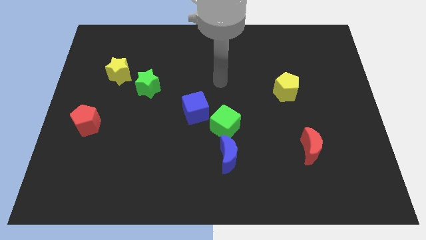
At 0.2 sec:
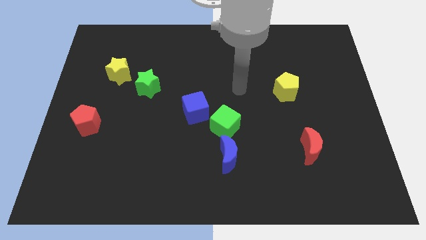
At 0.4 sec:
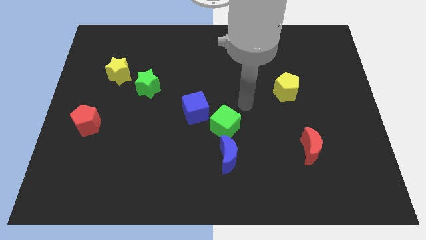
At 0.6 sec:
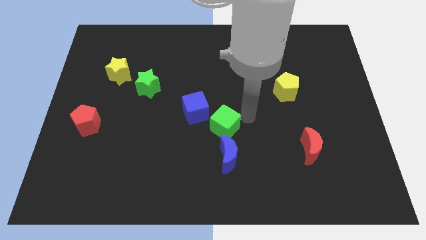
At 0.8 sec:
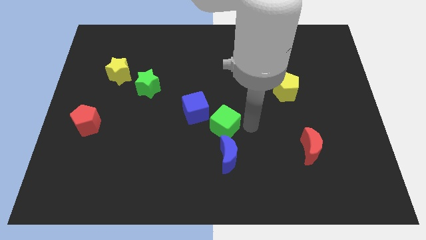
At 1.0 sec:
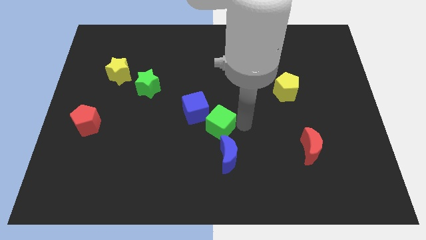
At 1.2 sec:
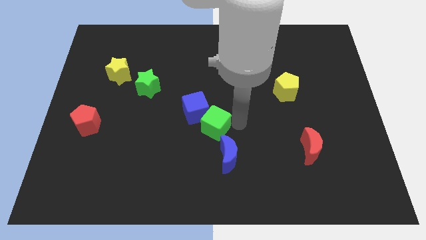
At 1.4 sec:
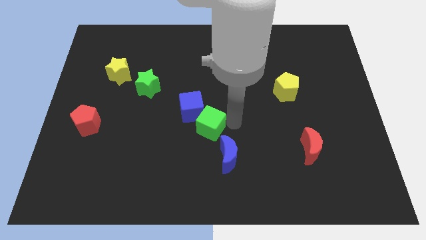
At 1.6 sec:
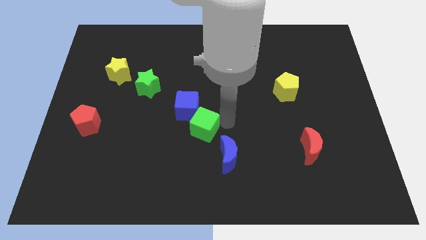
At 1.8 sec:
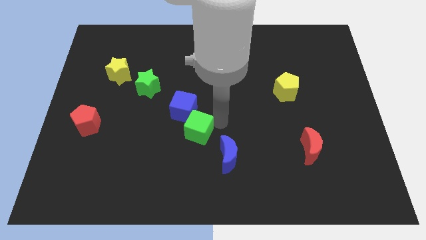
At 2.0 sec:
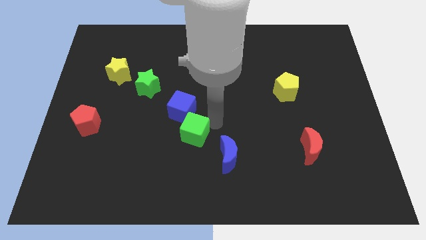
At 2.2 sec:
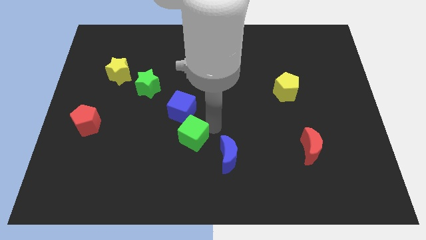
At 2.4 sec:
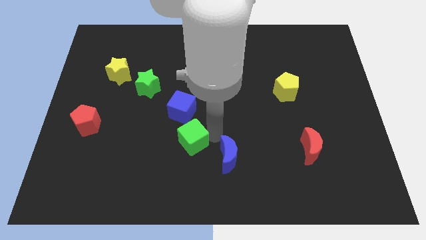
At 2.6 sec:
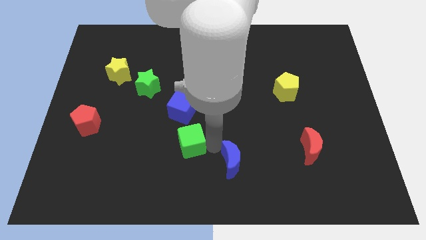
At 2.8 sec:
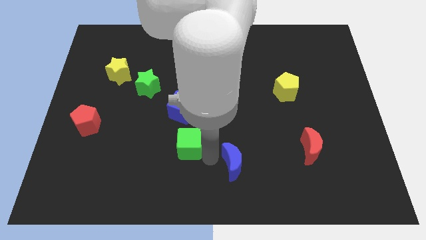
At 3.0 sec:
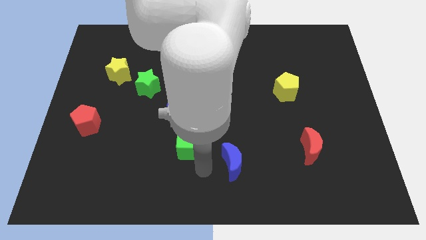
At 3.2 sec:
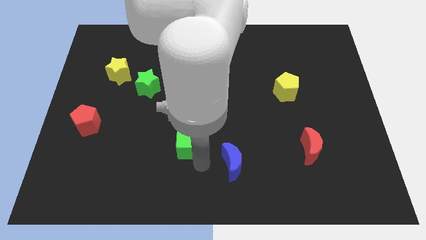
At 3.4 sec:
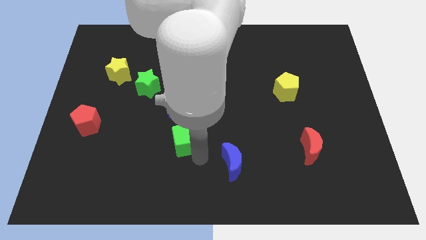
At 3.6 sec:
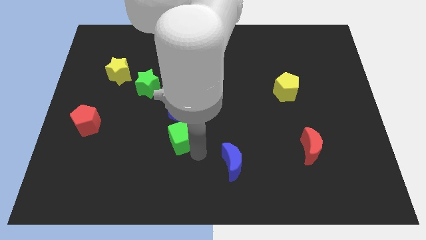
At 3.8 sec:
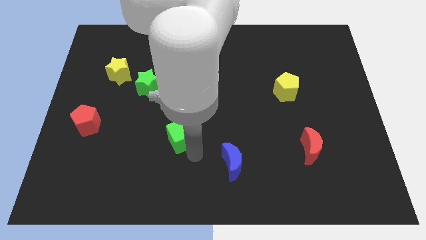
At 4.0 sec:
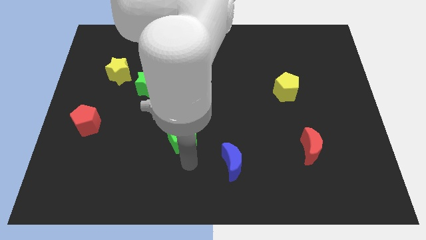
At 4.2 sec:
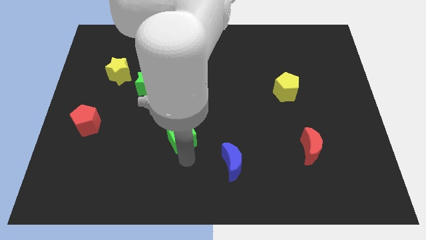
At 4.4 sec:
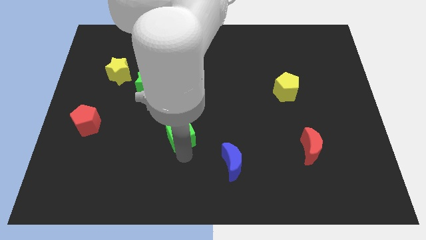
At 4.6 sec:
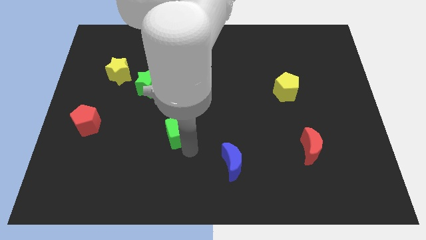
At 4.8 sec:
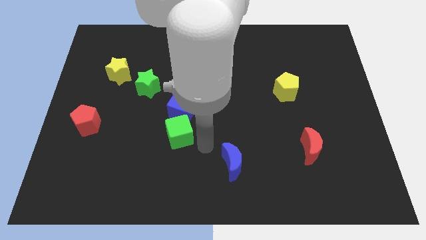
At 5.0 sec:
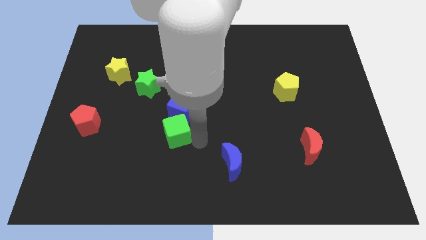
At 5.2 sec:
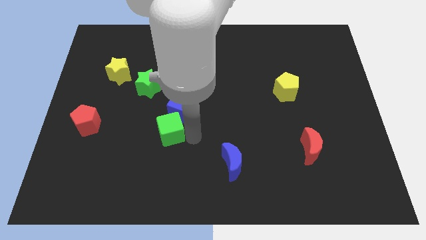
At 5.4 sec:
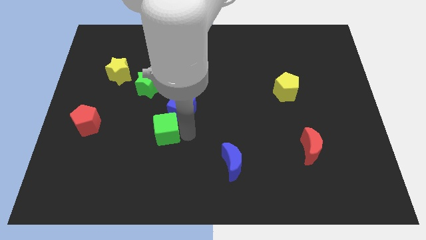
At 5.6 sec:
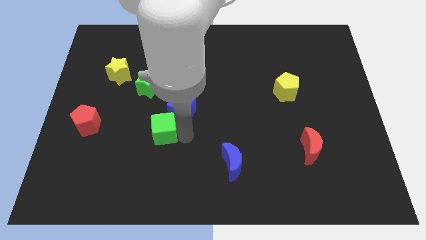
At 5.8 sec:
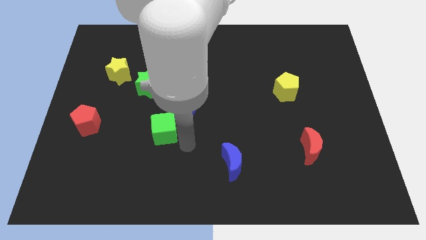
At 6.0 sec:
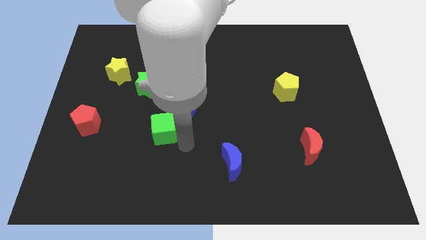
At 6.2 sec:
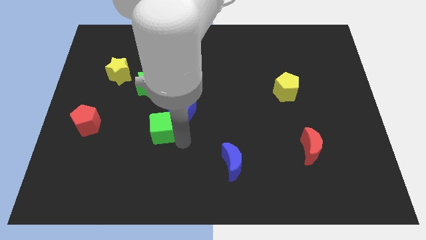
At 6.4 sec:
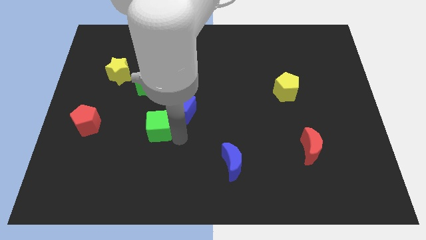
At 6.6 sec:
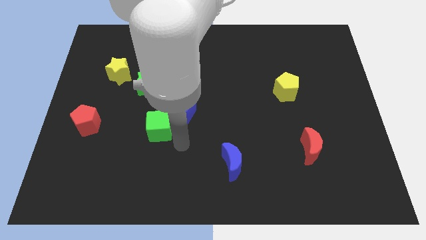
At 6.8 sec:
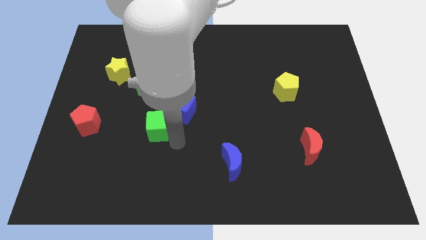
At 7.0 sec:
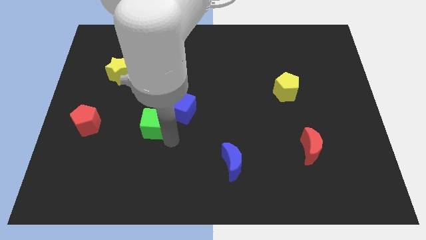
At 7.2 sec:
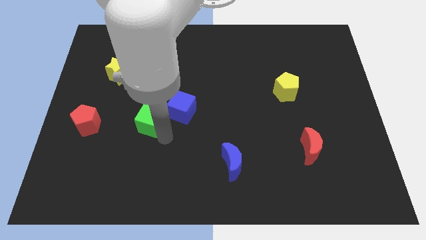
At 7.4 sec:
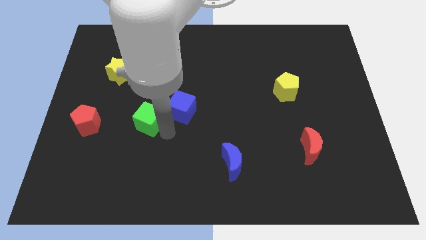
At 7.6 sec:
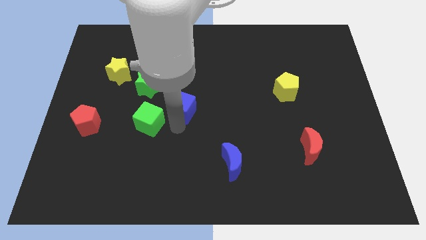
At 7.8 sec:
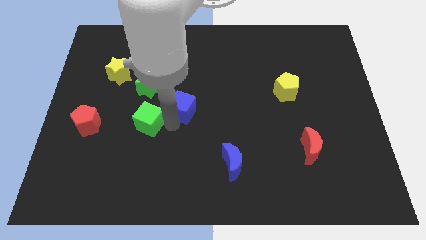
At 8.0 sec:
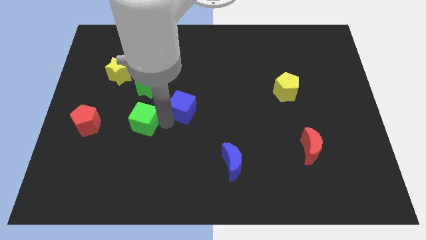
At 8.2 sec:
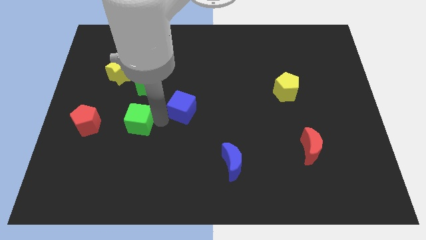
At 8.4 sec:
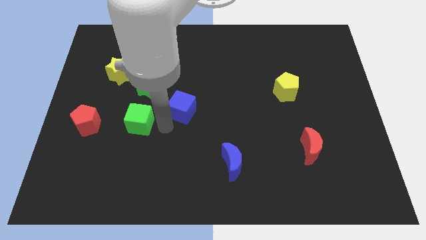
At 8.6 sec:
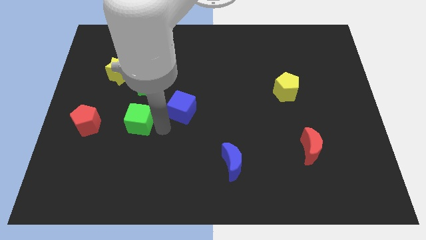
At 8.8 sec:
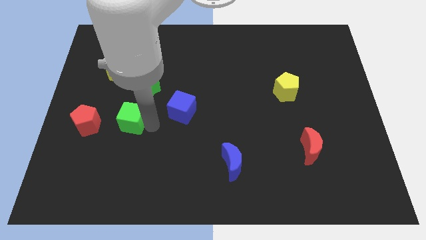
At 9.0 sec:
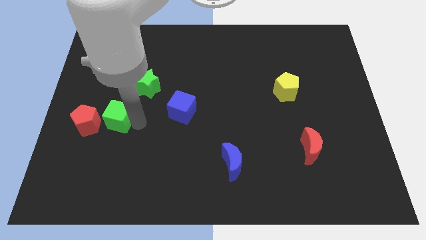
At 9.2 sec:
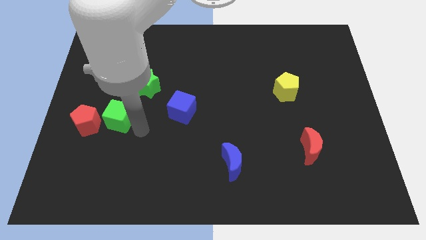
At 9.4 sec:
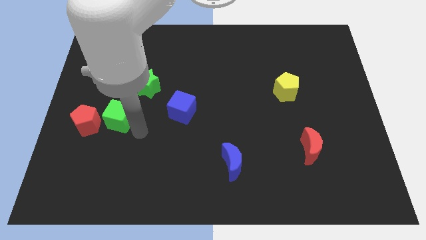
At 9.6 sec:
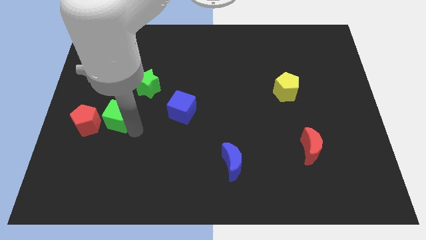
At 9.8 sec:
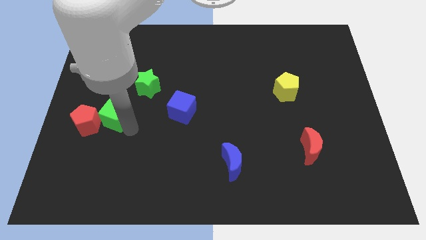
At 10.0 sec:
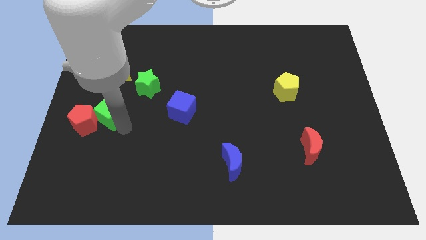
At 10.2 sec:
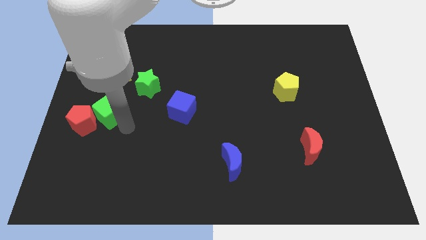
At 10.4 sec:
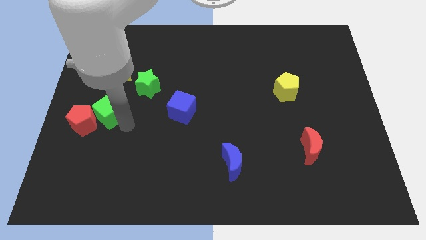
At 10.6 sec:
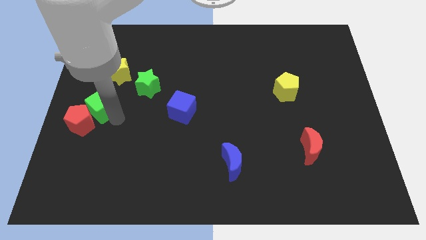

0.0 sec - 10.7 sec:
slide the green cube to the center left

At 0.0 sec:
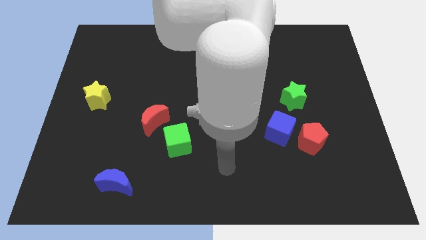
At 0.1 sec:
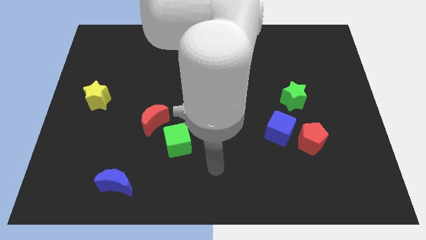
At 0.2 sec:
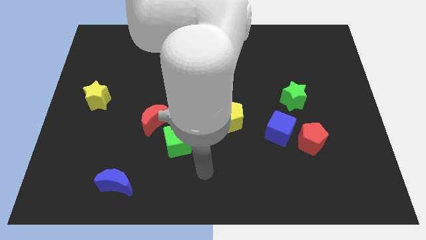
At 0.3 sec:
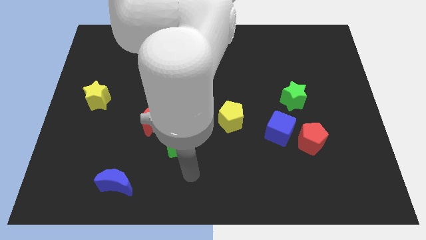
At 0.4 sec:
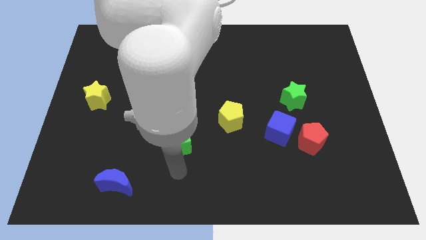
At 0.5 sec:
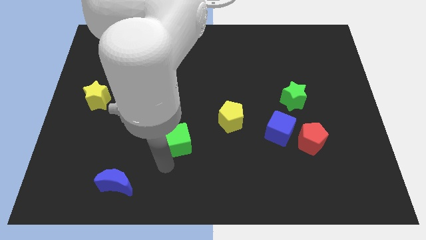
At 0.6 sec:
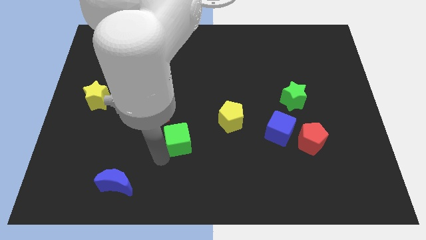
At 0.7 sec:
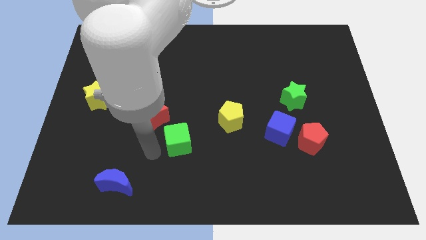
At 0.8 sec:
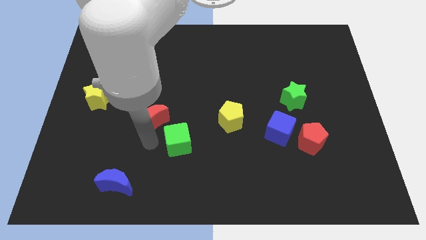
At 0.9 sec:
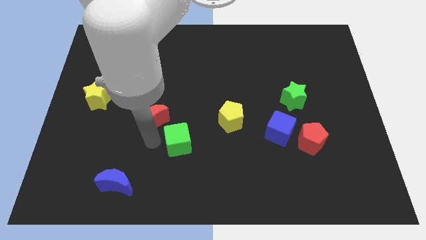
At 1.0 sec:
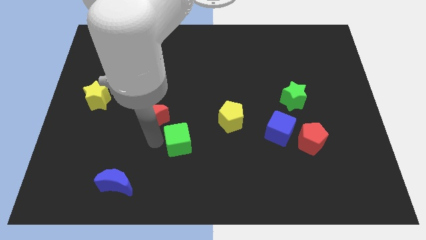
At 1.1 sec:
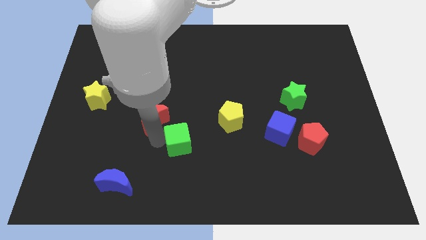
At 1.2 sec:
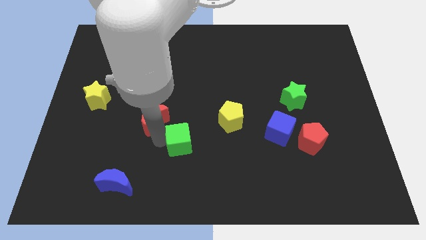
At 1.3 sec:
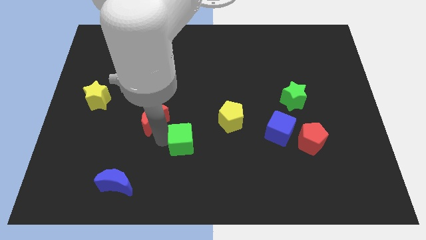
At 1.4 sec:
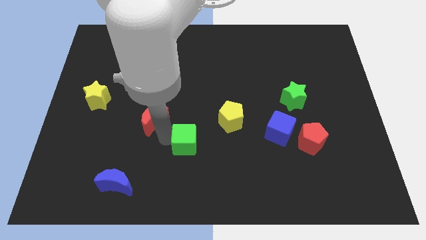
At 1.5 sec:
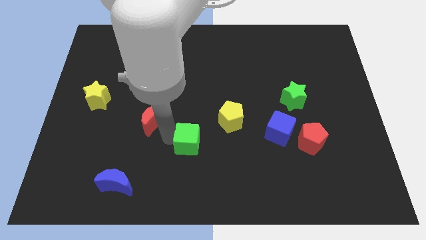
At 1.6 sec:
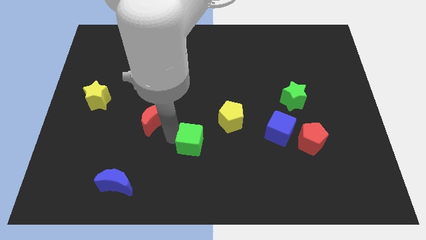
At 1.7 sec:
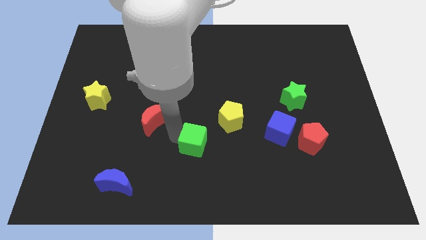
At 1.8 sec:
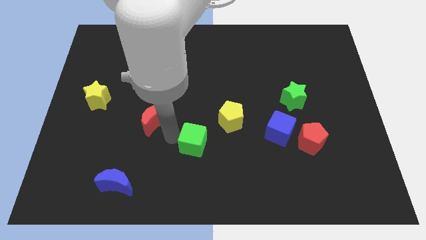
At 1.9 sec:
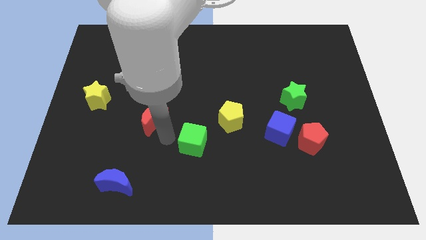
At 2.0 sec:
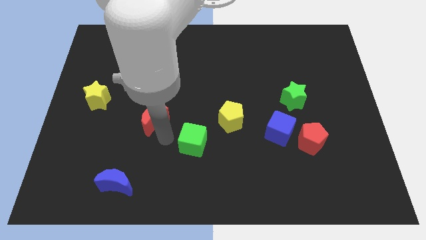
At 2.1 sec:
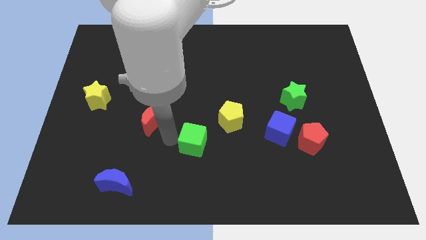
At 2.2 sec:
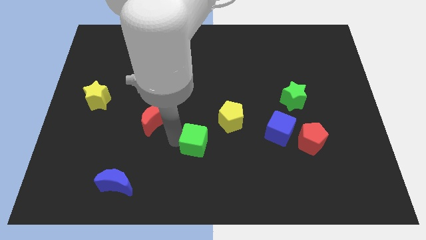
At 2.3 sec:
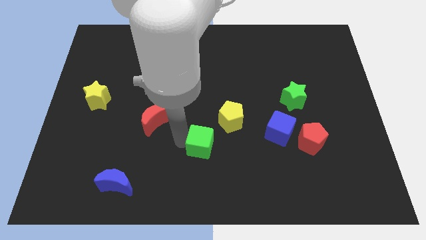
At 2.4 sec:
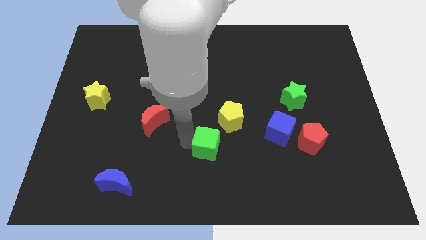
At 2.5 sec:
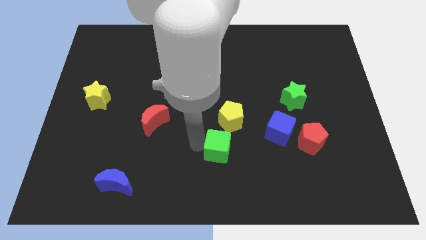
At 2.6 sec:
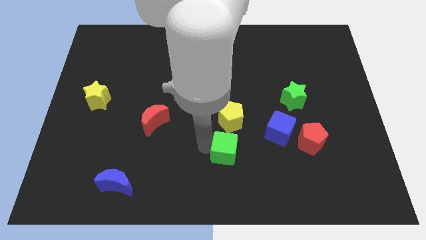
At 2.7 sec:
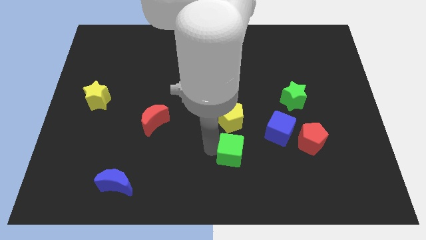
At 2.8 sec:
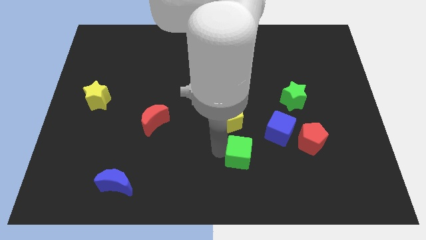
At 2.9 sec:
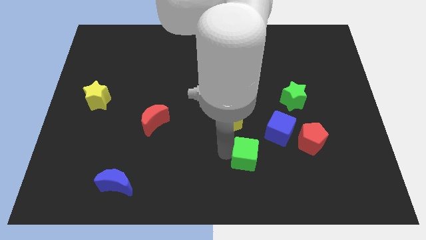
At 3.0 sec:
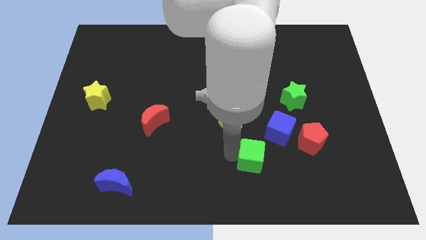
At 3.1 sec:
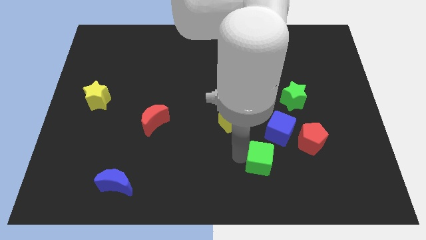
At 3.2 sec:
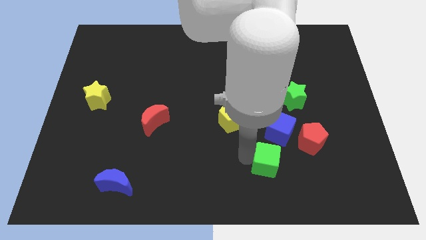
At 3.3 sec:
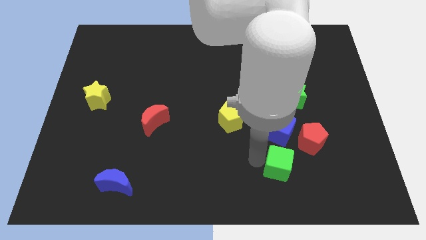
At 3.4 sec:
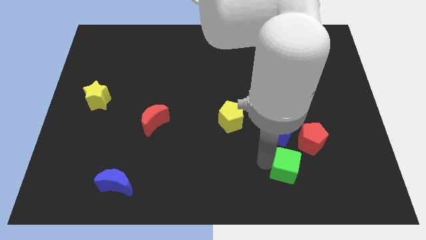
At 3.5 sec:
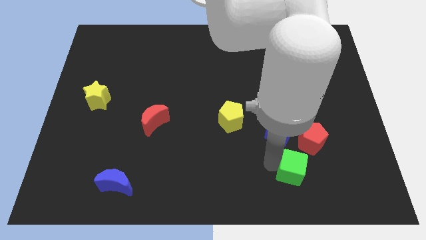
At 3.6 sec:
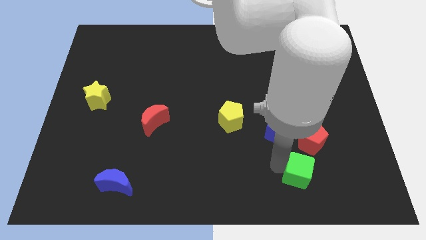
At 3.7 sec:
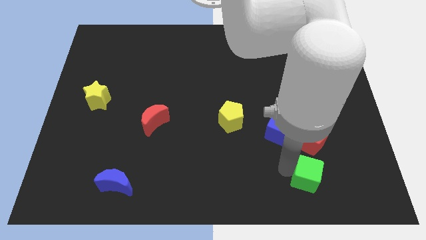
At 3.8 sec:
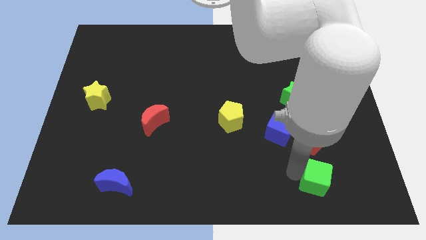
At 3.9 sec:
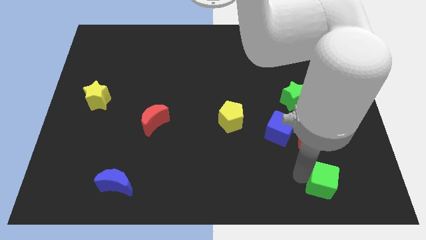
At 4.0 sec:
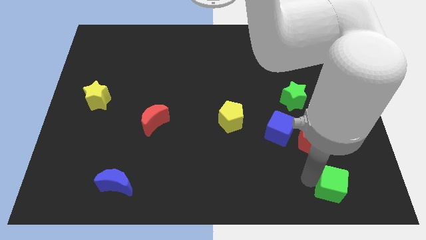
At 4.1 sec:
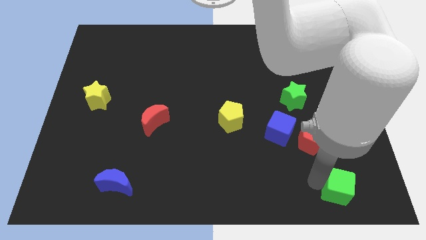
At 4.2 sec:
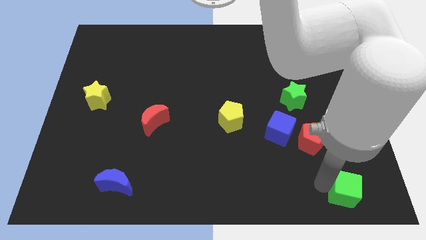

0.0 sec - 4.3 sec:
put the green cube to the bottom right of the board
